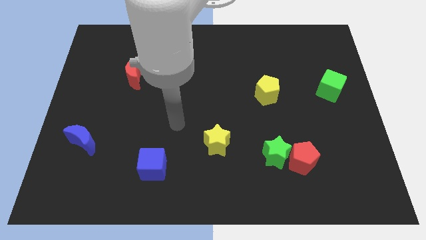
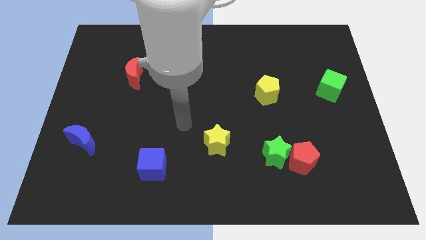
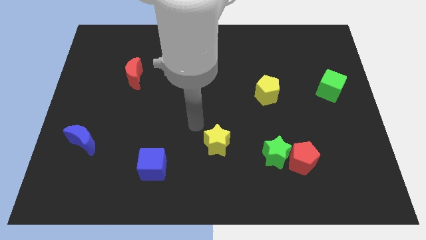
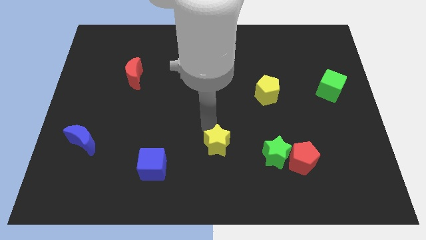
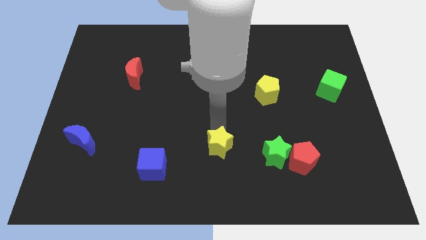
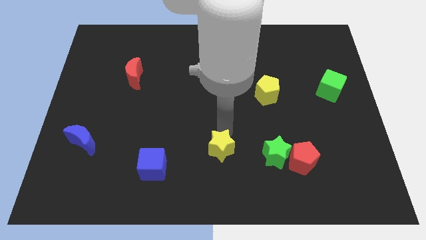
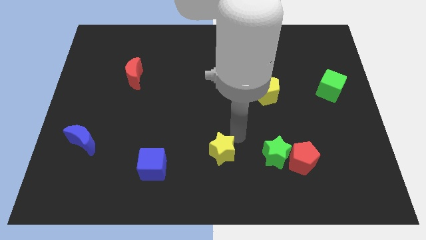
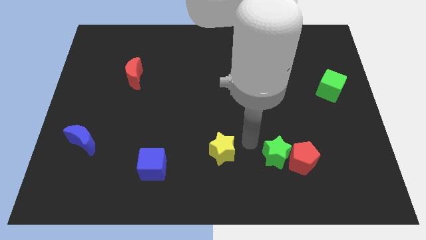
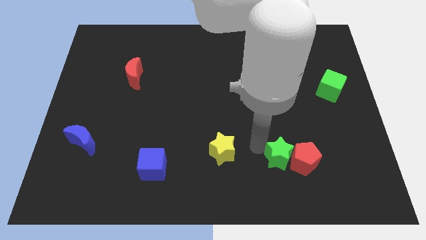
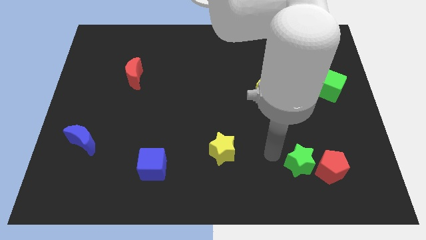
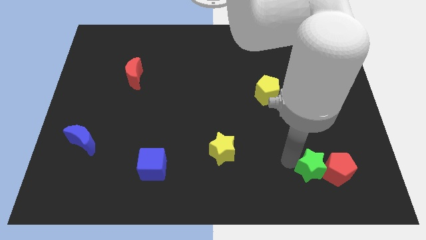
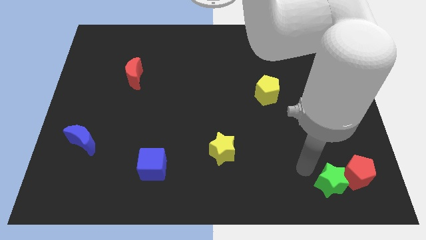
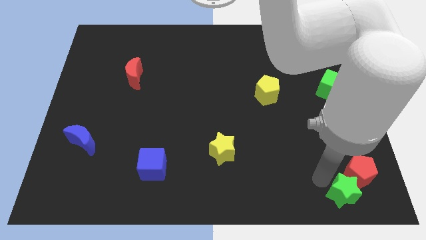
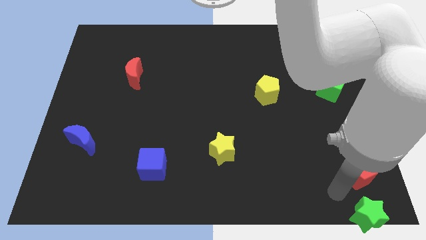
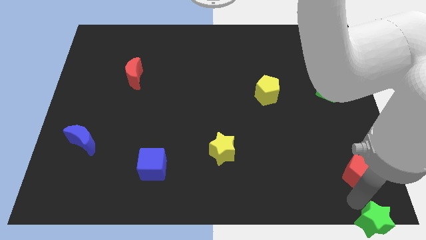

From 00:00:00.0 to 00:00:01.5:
move the red pentagon away from the green star

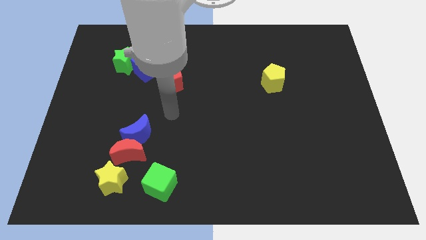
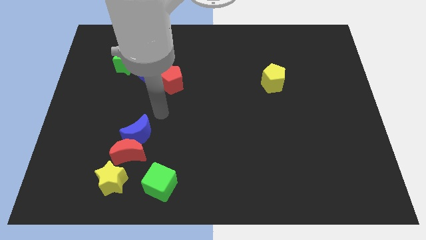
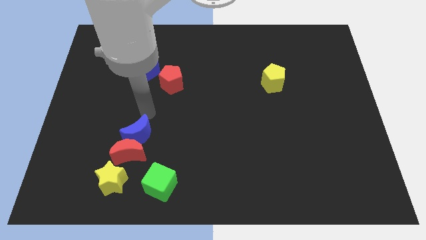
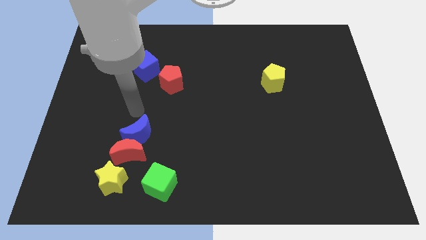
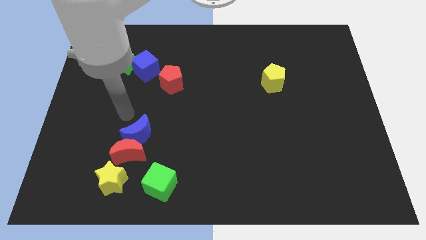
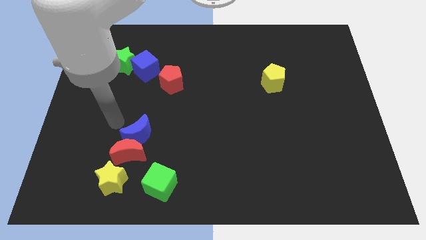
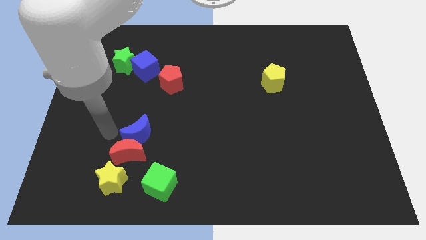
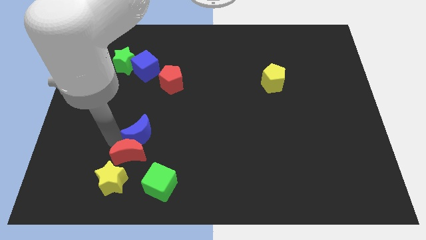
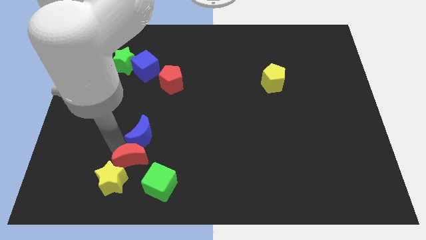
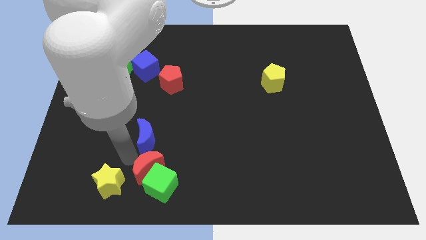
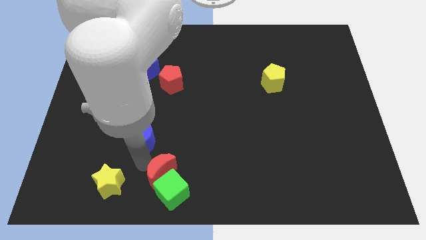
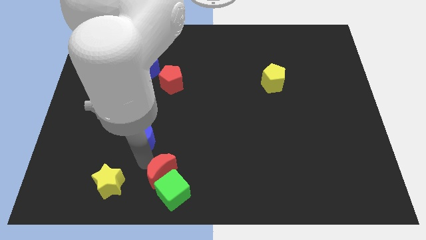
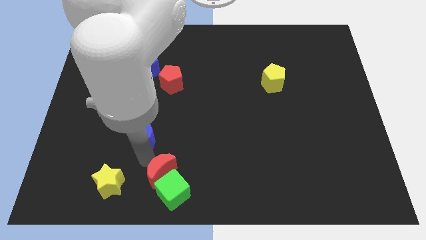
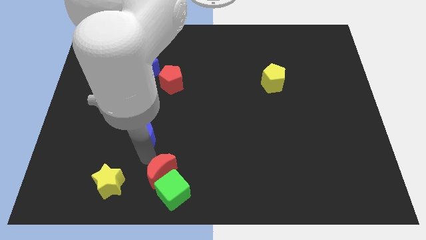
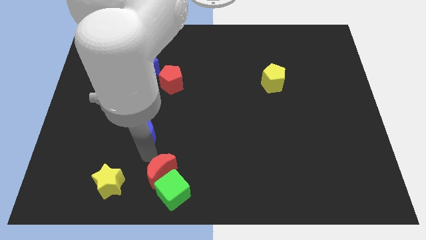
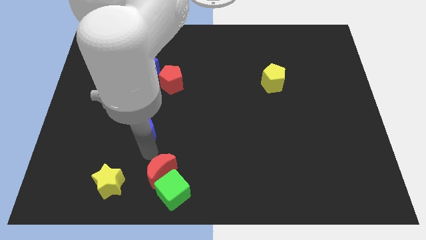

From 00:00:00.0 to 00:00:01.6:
pull the blue moon apart from the red moon

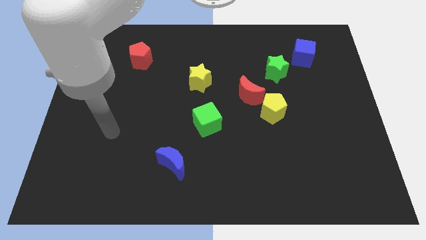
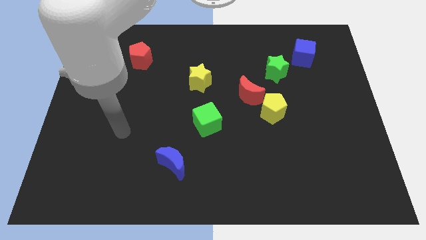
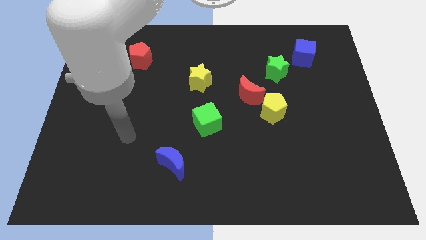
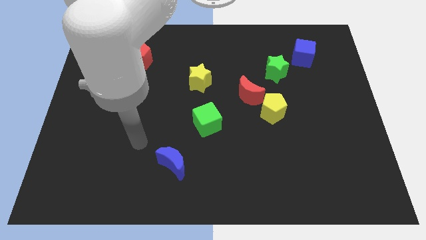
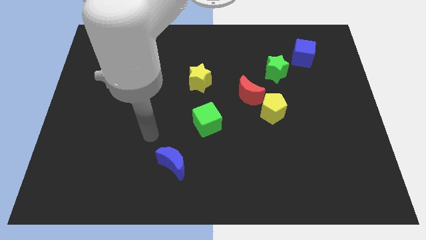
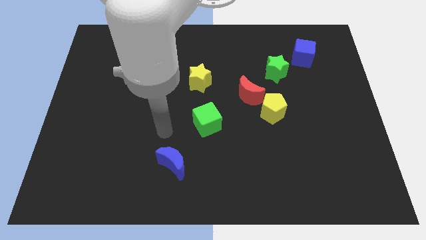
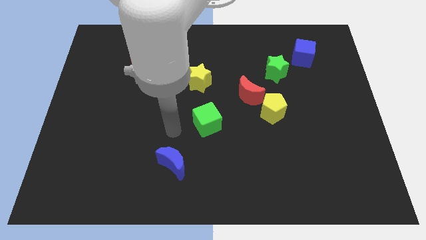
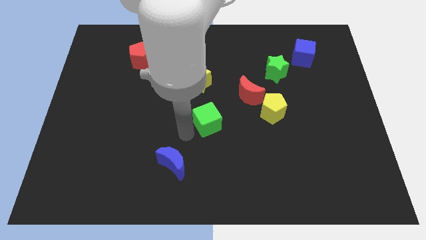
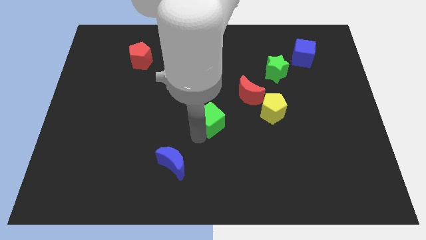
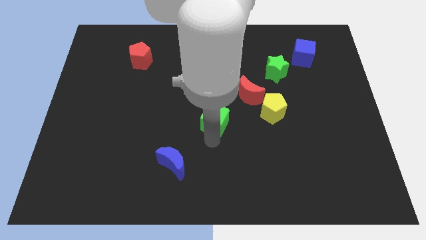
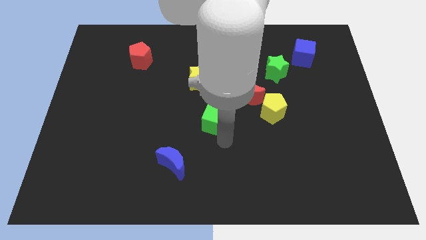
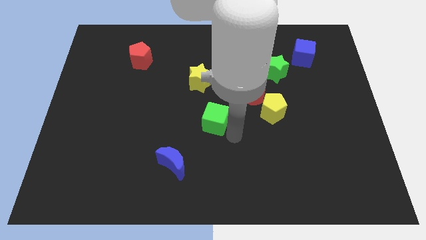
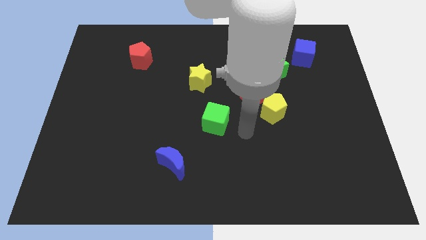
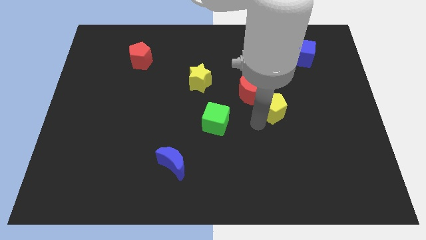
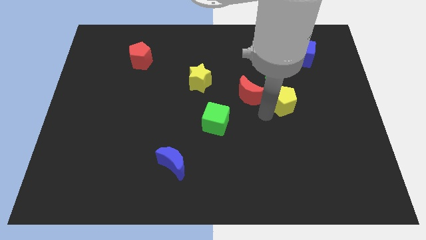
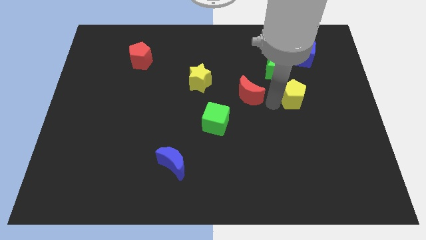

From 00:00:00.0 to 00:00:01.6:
separate the red moon from the yellow pentagon

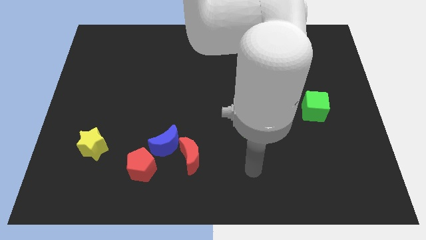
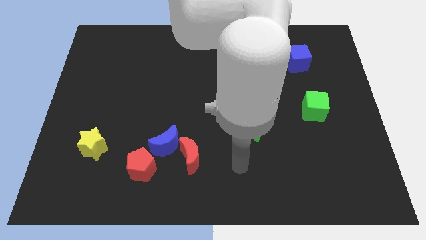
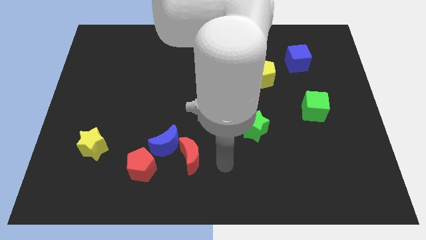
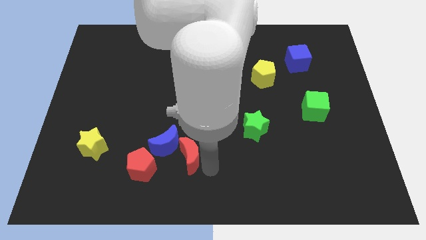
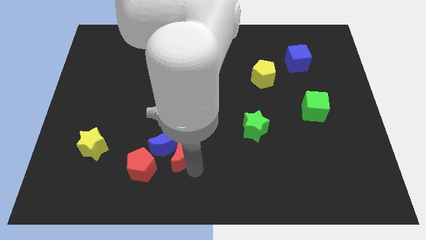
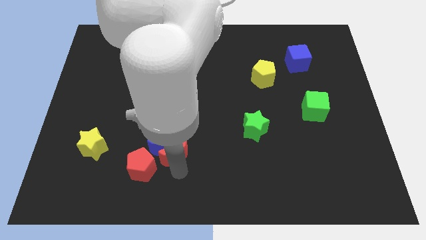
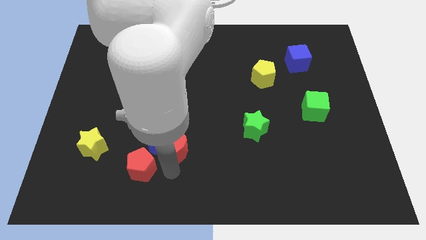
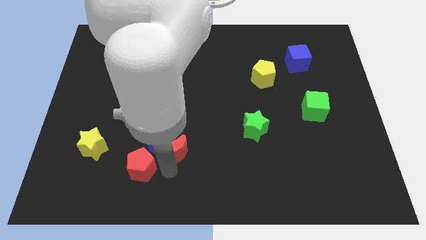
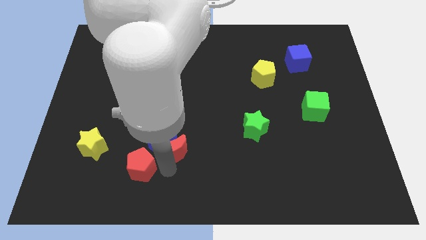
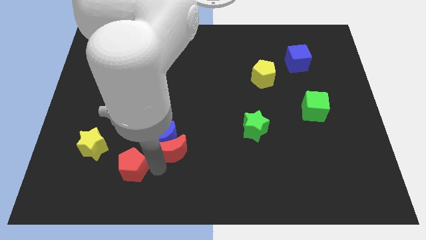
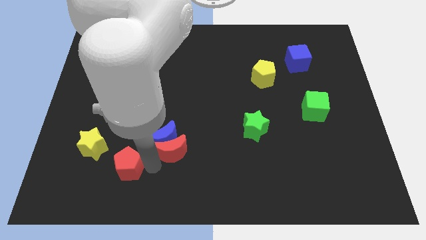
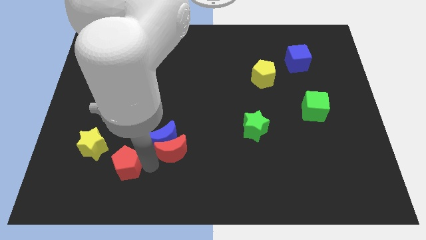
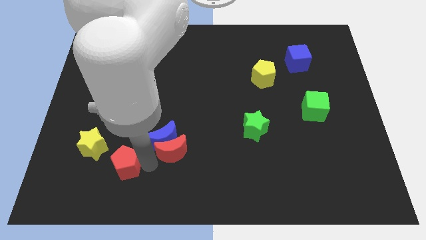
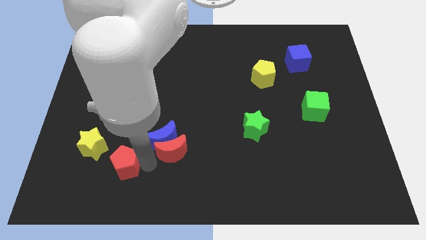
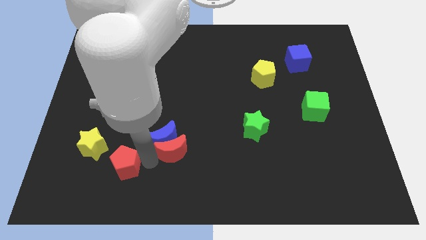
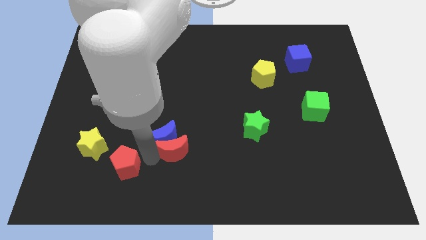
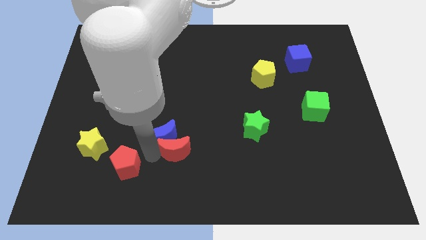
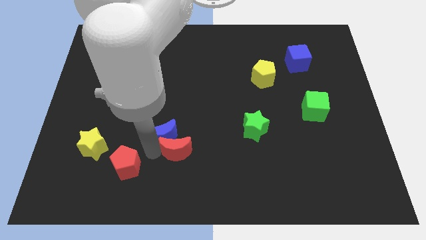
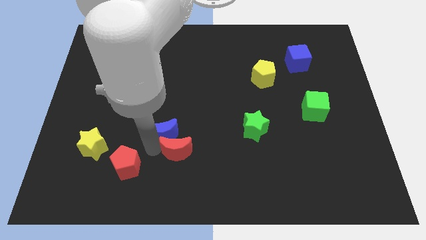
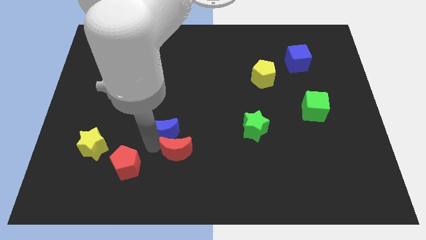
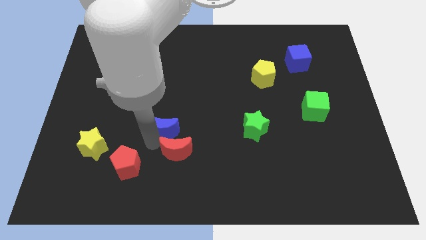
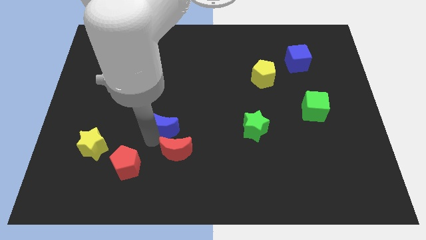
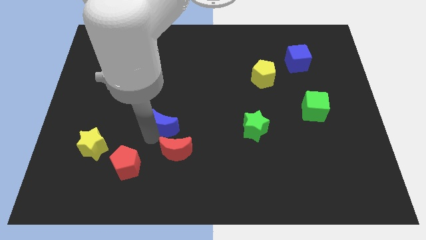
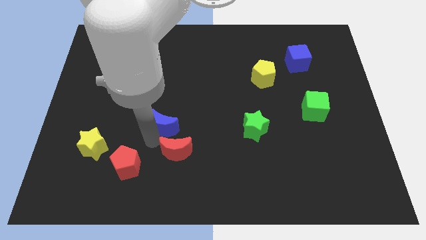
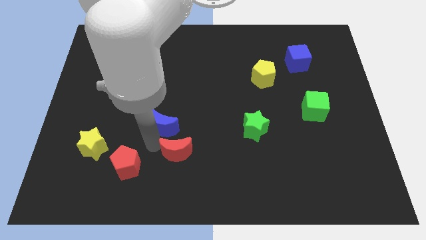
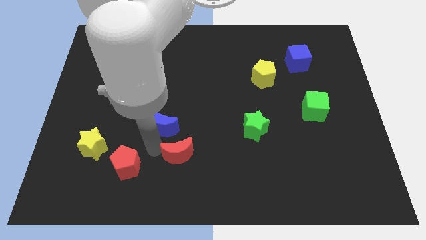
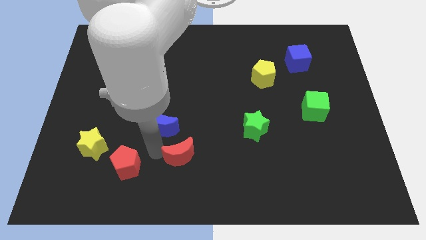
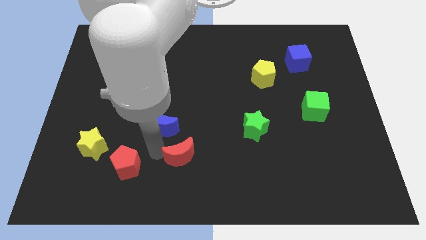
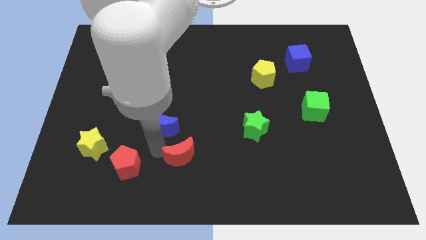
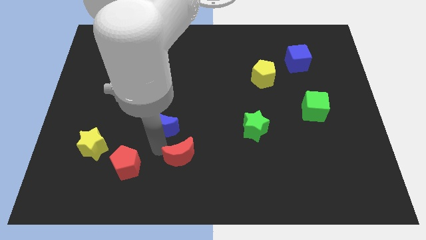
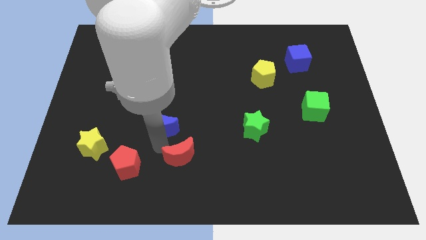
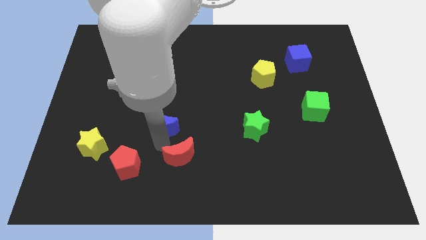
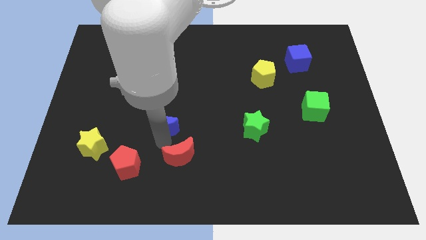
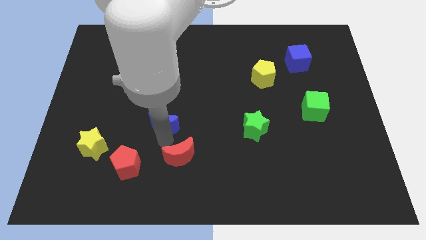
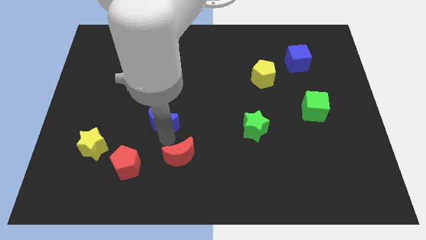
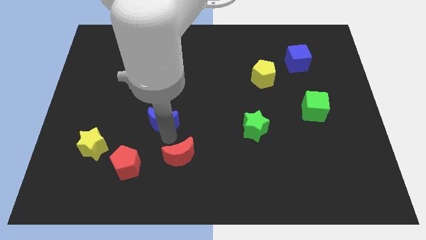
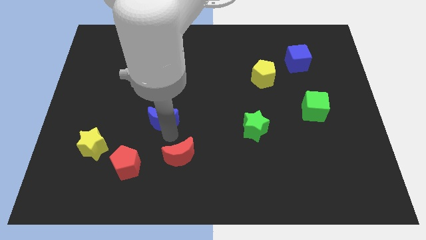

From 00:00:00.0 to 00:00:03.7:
move the blue moon away from the red moon and red pentagon

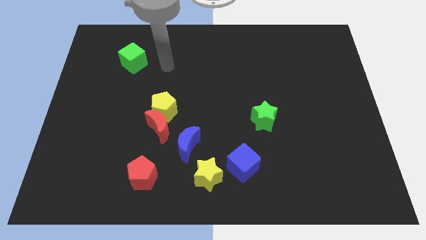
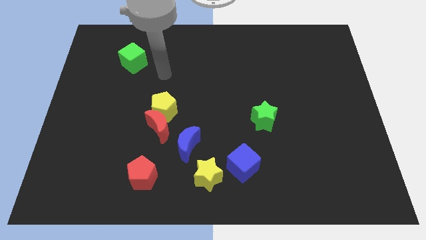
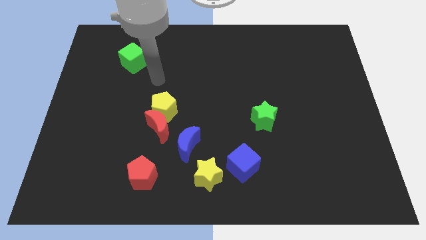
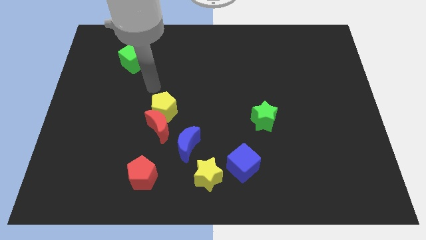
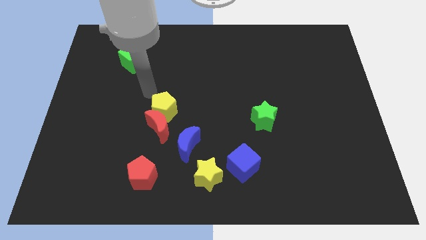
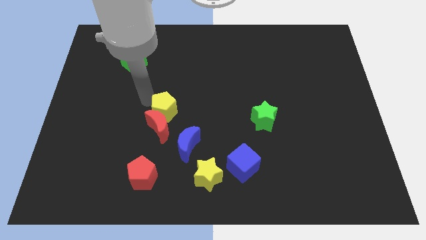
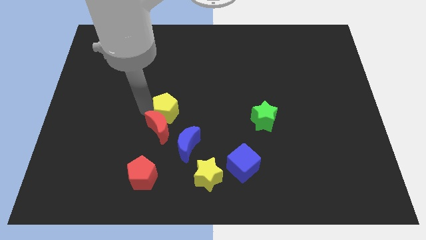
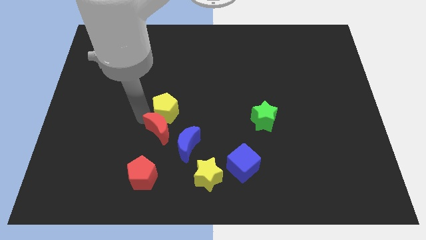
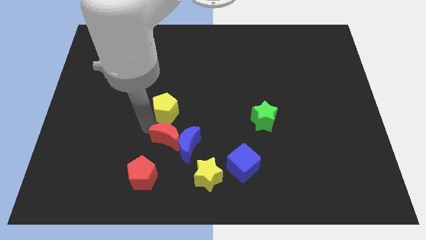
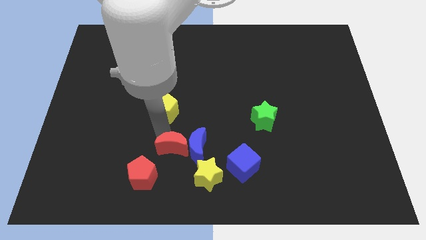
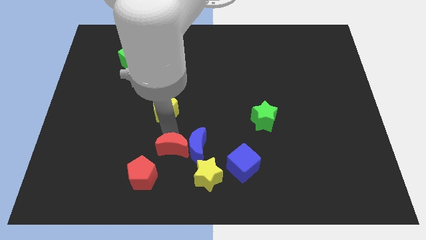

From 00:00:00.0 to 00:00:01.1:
separate the yellow pentagon from the red moon
